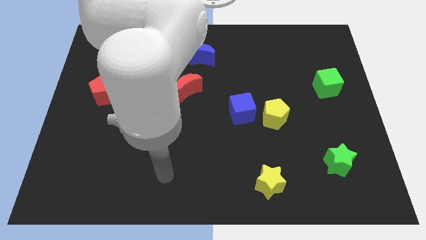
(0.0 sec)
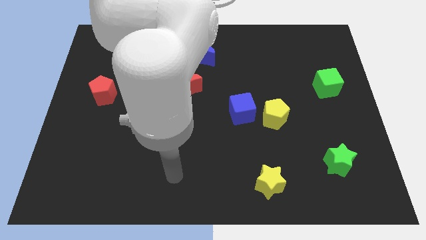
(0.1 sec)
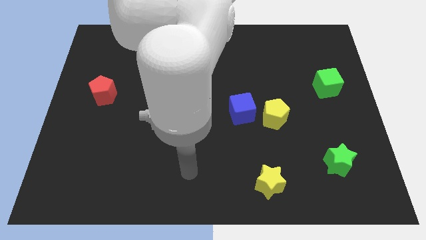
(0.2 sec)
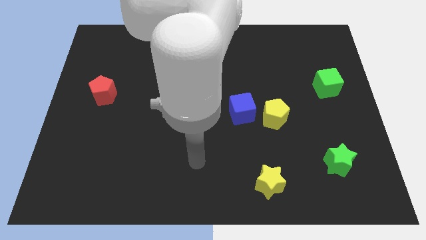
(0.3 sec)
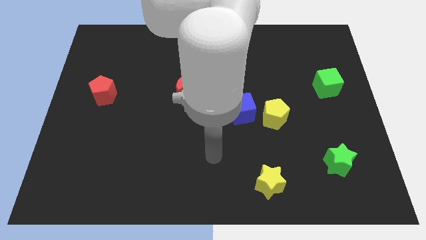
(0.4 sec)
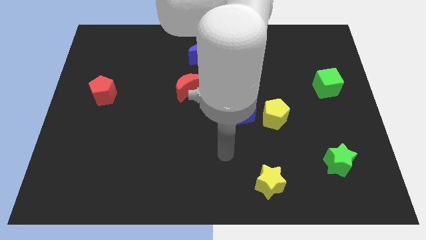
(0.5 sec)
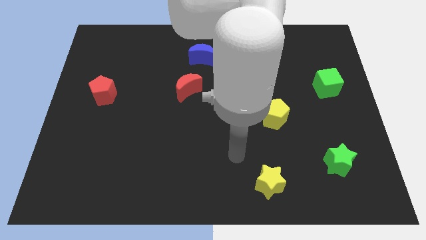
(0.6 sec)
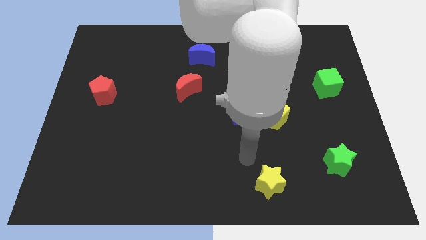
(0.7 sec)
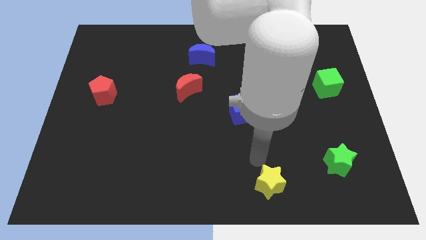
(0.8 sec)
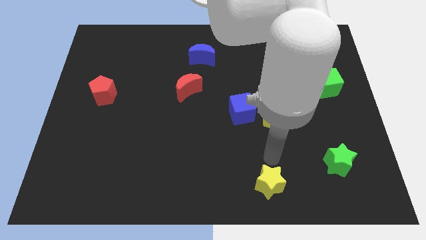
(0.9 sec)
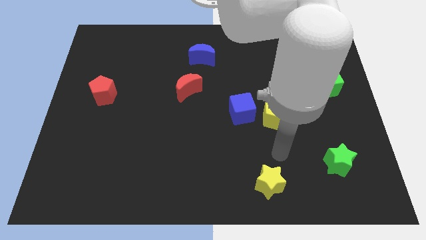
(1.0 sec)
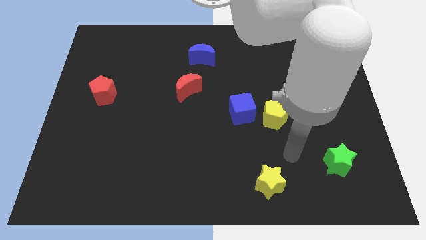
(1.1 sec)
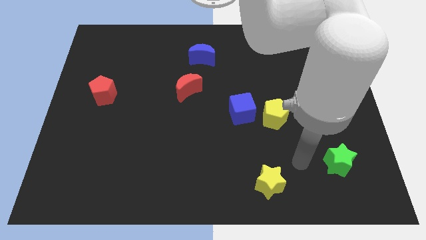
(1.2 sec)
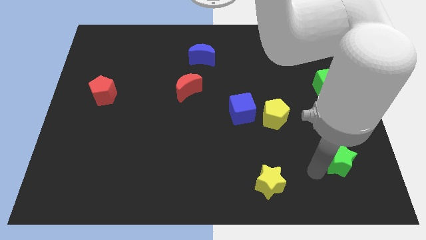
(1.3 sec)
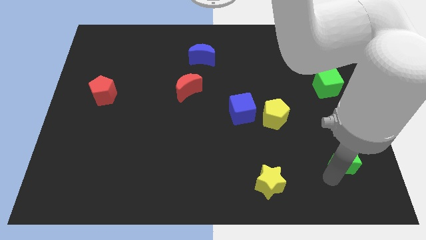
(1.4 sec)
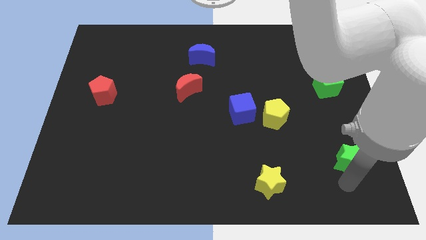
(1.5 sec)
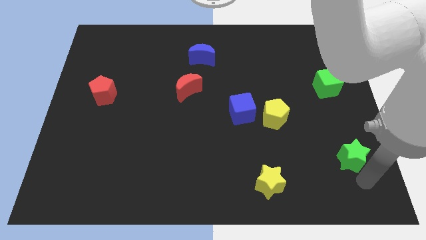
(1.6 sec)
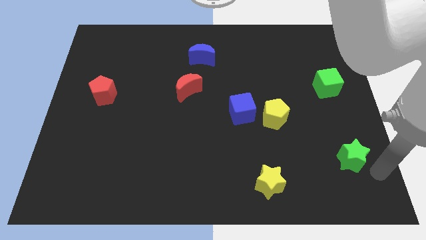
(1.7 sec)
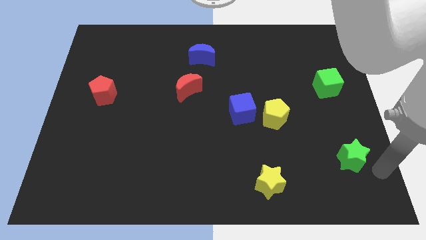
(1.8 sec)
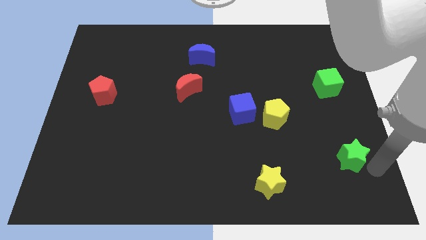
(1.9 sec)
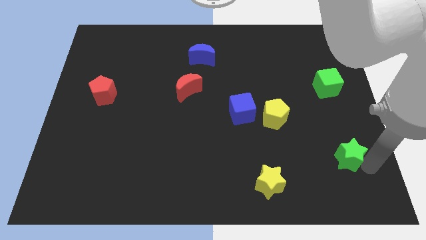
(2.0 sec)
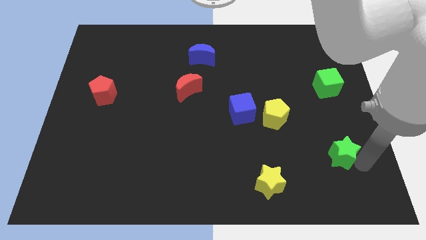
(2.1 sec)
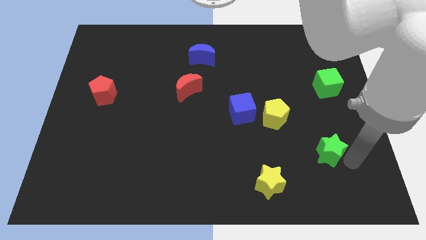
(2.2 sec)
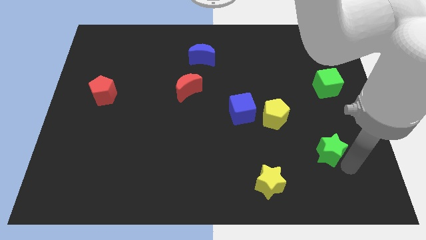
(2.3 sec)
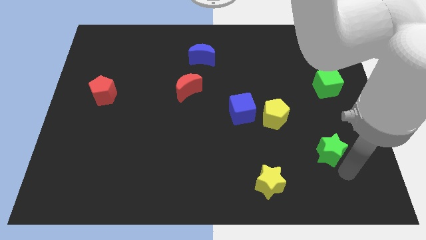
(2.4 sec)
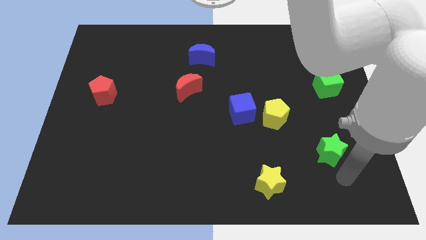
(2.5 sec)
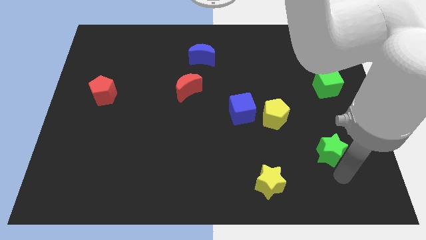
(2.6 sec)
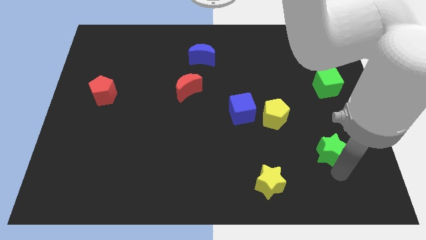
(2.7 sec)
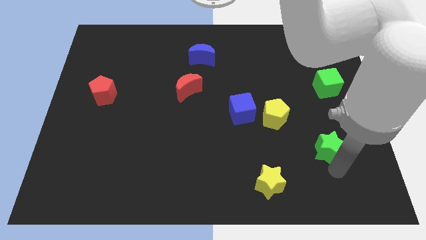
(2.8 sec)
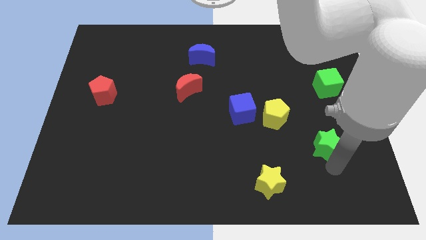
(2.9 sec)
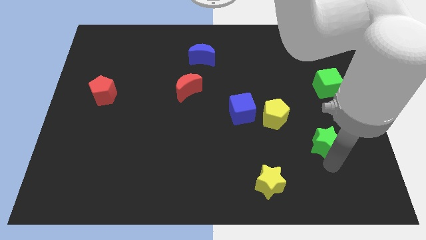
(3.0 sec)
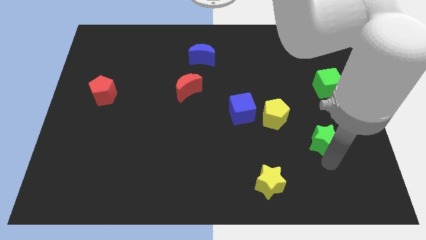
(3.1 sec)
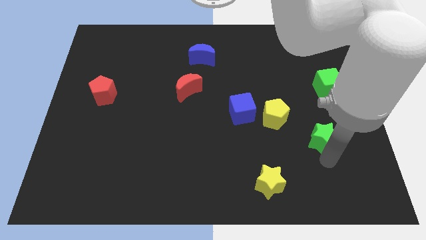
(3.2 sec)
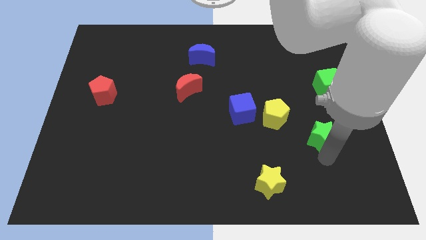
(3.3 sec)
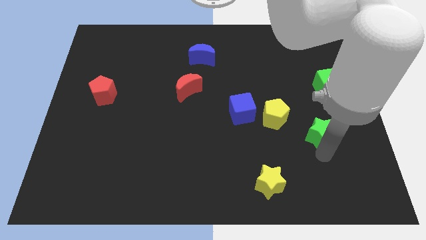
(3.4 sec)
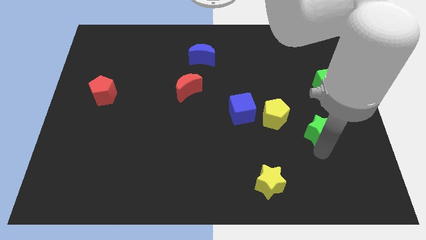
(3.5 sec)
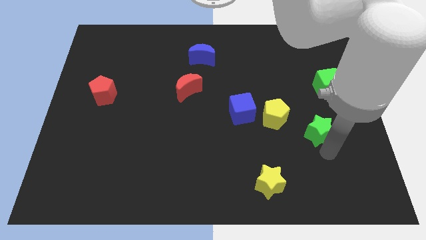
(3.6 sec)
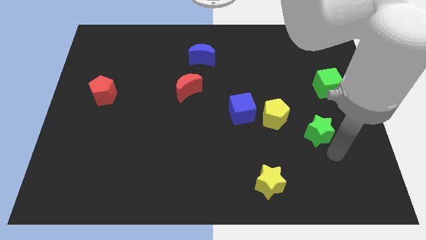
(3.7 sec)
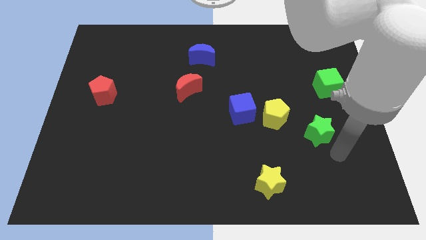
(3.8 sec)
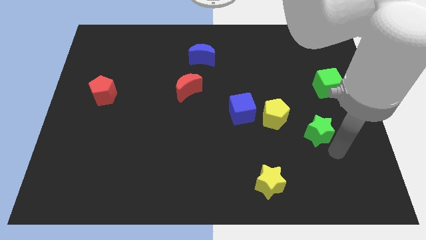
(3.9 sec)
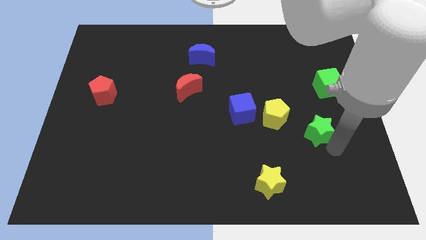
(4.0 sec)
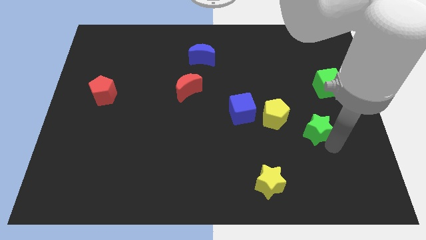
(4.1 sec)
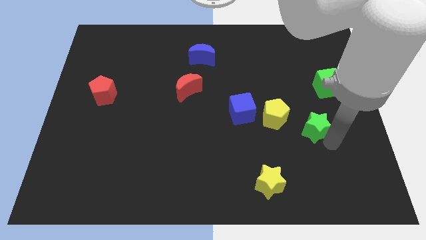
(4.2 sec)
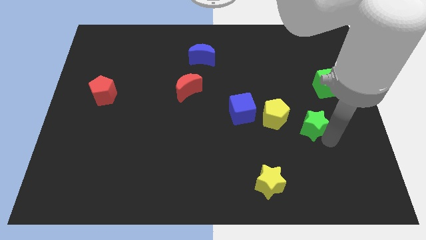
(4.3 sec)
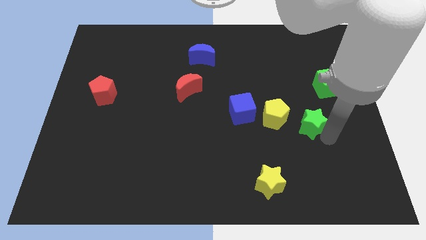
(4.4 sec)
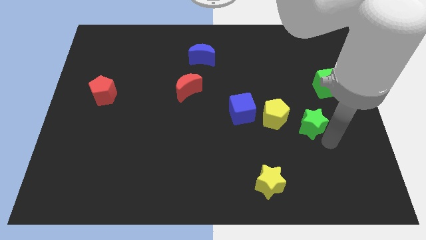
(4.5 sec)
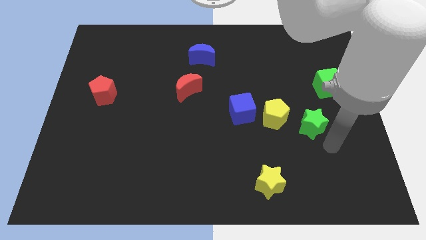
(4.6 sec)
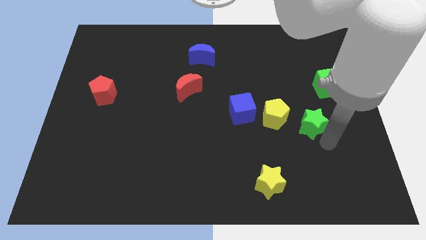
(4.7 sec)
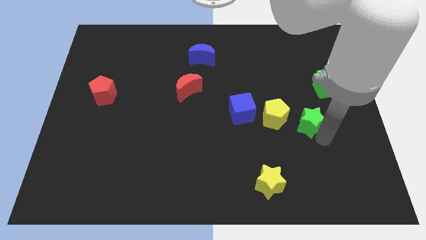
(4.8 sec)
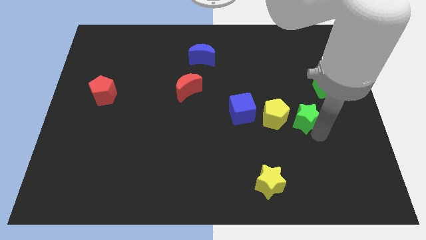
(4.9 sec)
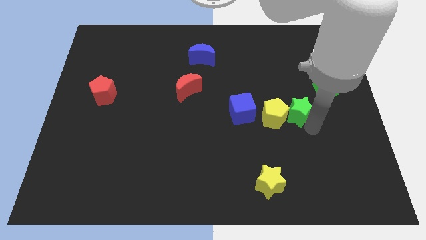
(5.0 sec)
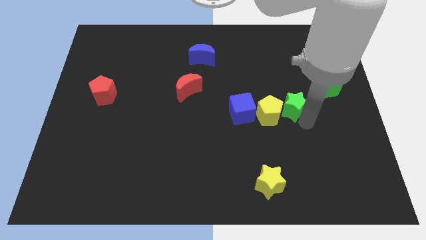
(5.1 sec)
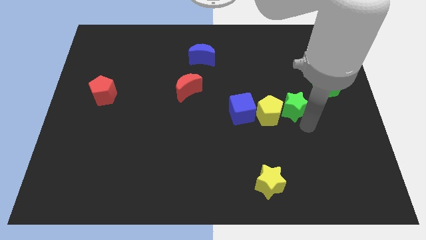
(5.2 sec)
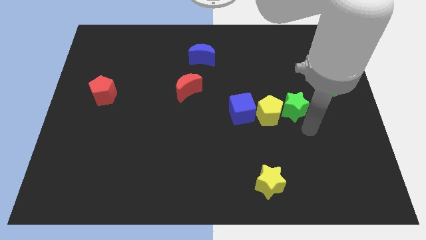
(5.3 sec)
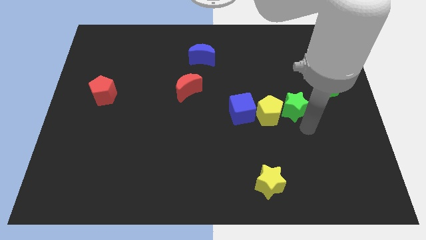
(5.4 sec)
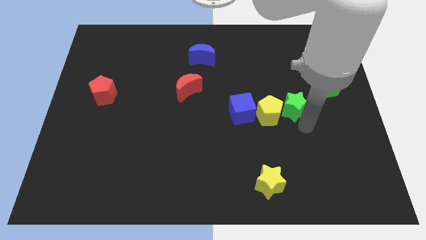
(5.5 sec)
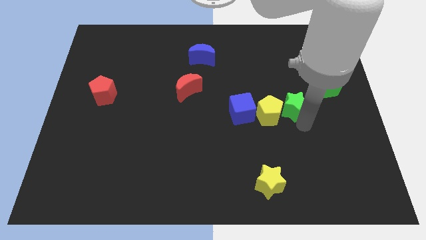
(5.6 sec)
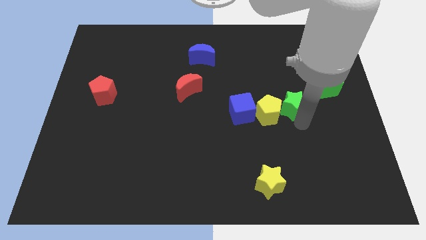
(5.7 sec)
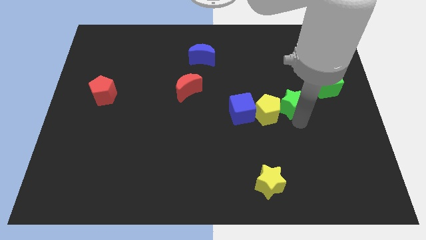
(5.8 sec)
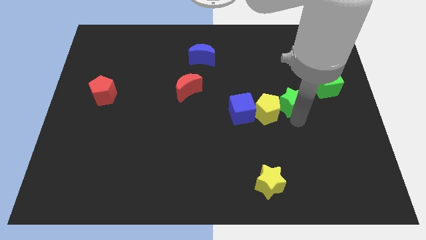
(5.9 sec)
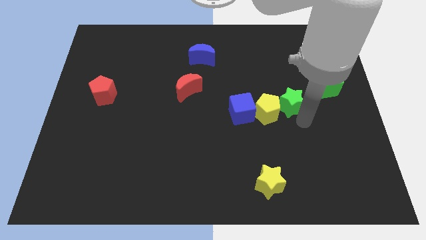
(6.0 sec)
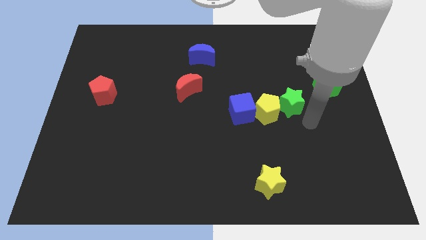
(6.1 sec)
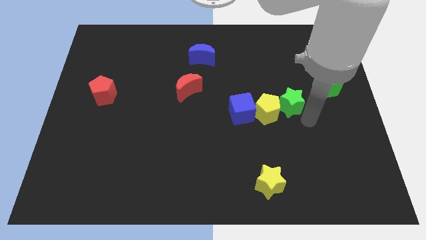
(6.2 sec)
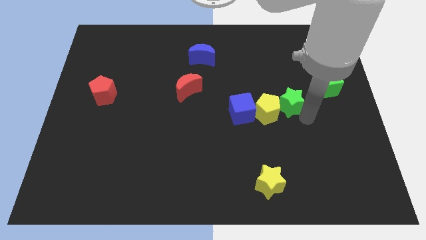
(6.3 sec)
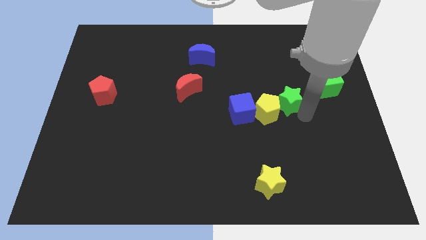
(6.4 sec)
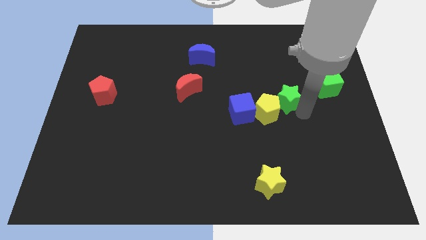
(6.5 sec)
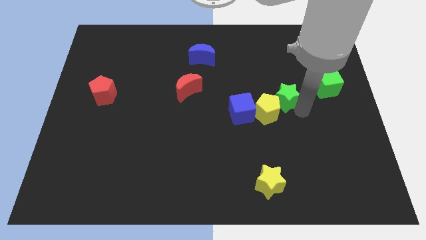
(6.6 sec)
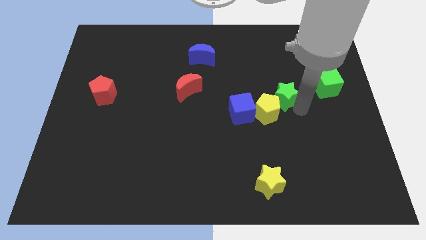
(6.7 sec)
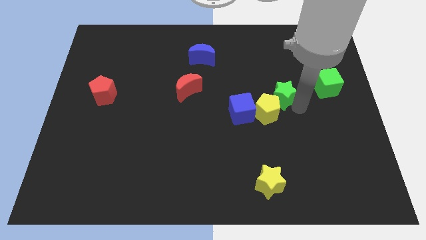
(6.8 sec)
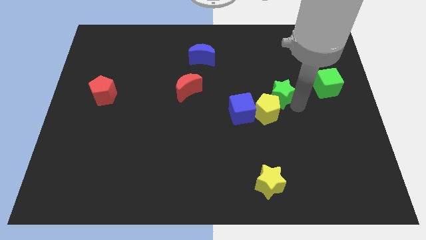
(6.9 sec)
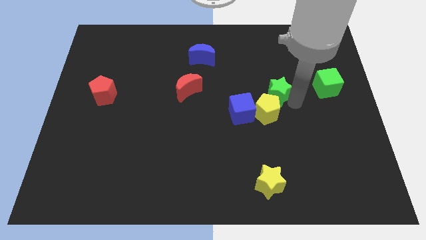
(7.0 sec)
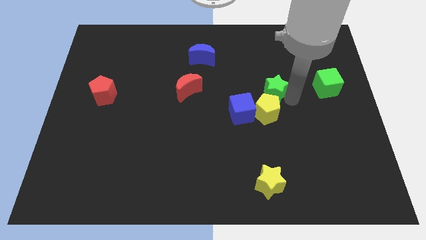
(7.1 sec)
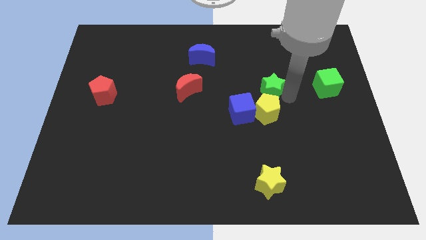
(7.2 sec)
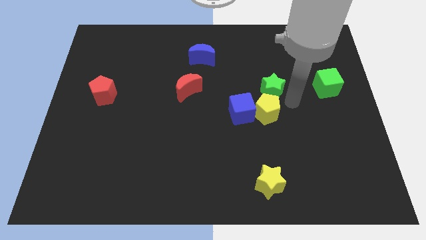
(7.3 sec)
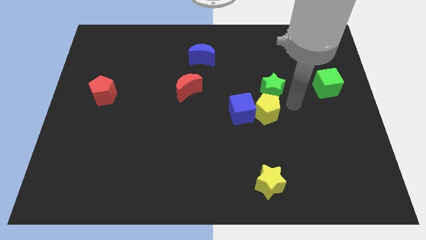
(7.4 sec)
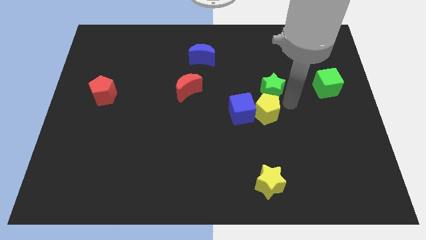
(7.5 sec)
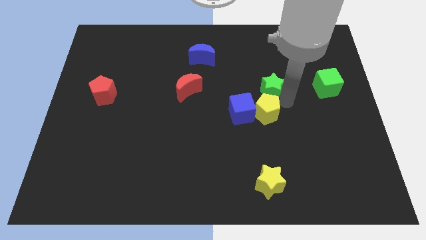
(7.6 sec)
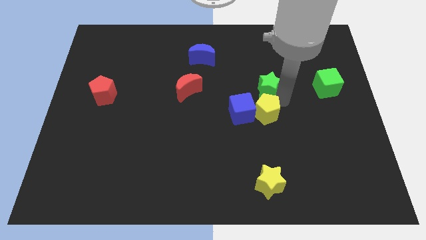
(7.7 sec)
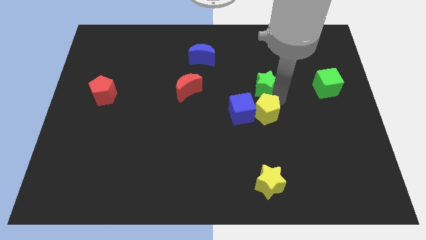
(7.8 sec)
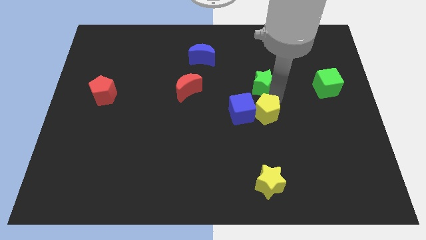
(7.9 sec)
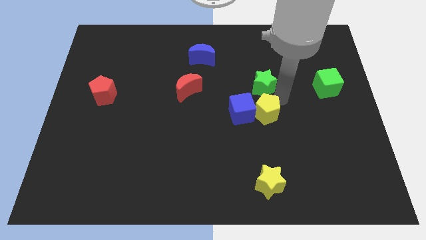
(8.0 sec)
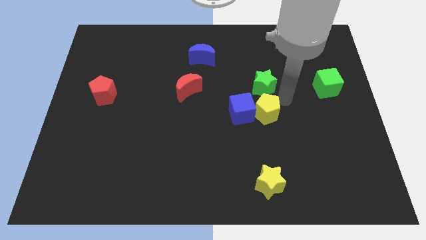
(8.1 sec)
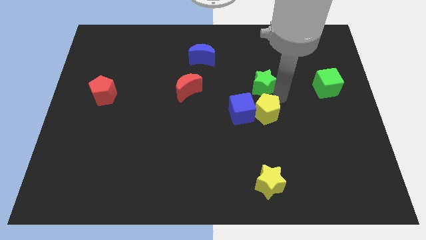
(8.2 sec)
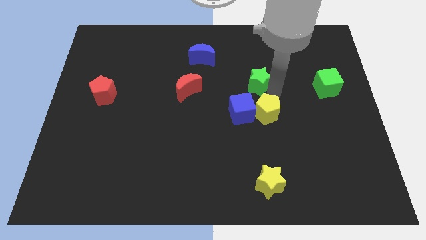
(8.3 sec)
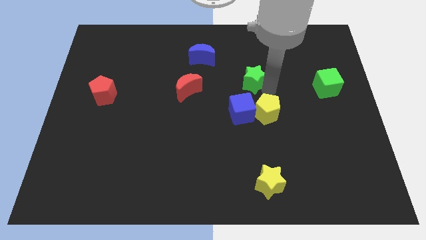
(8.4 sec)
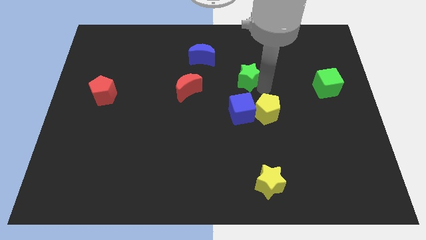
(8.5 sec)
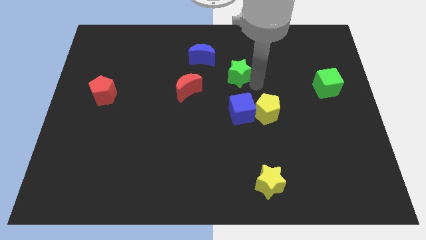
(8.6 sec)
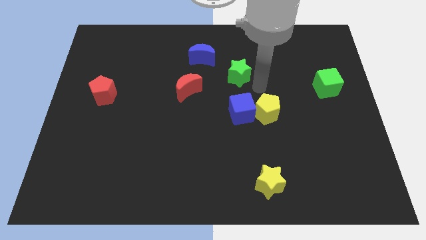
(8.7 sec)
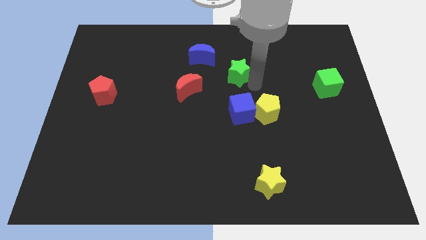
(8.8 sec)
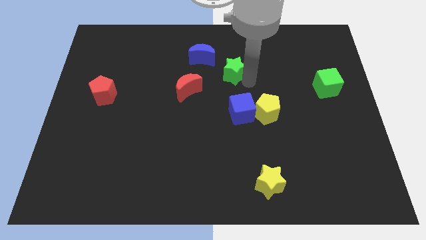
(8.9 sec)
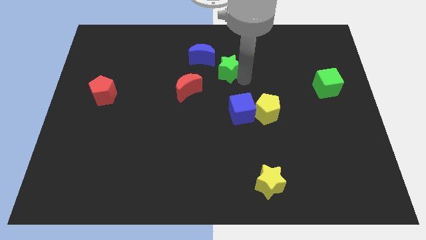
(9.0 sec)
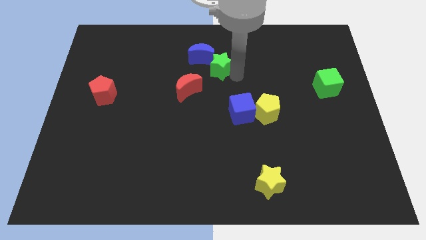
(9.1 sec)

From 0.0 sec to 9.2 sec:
push the green star close to the blue moon
